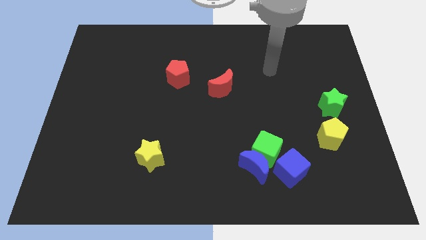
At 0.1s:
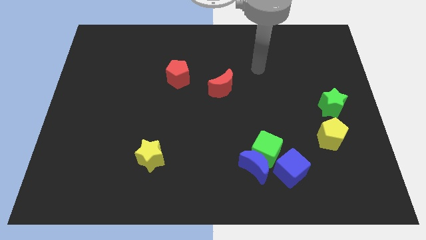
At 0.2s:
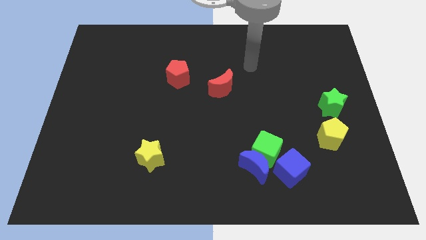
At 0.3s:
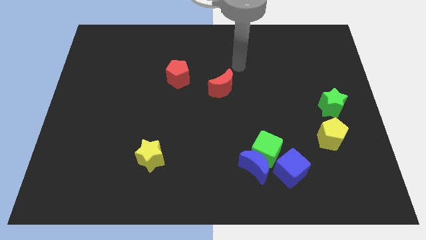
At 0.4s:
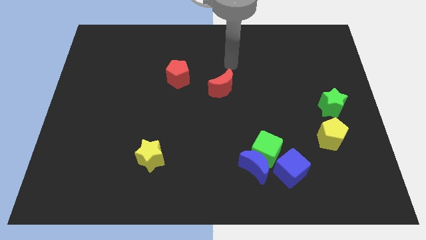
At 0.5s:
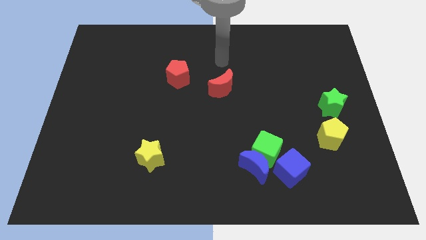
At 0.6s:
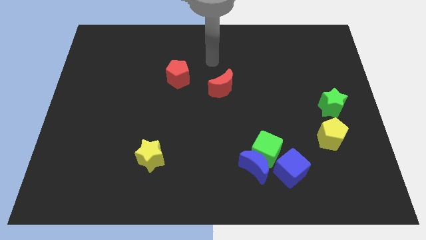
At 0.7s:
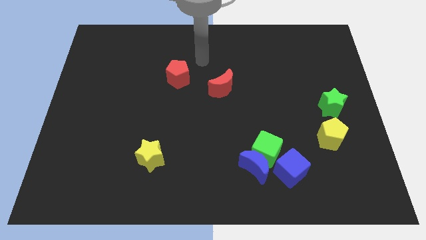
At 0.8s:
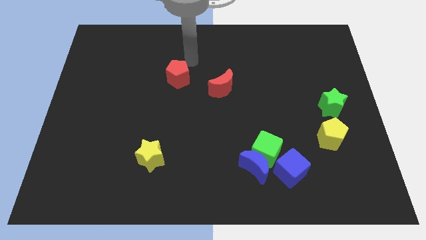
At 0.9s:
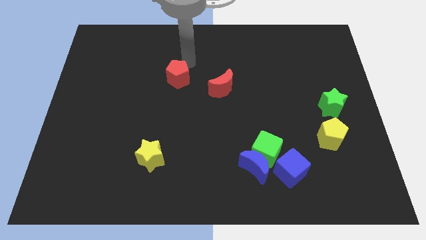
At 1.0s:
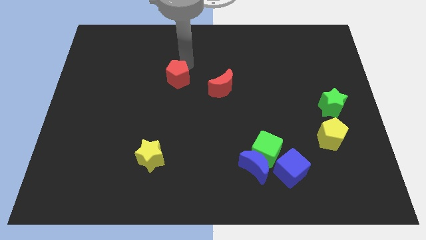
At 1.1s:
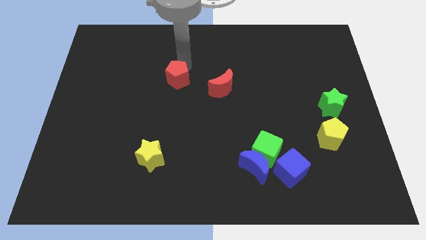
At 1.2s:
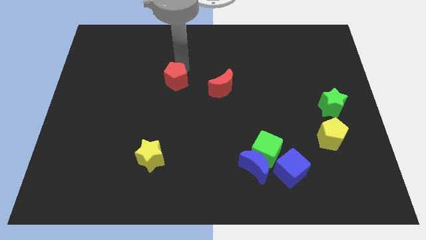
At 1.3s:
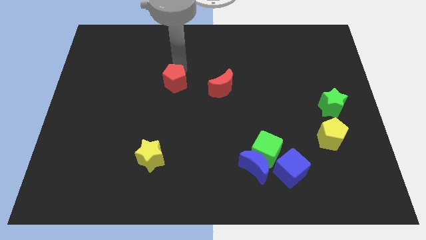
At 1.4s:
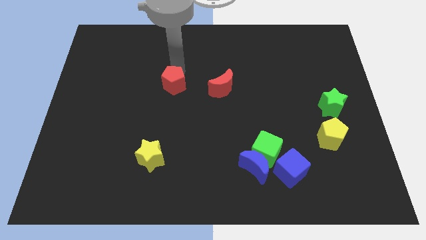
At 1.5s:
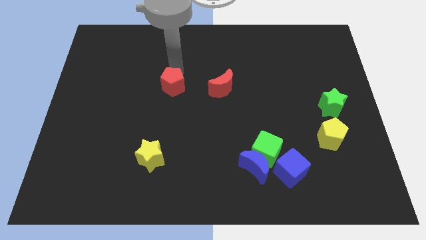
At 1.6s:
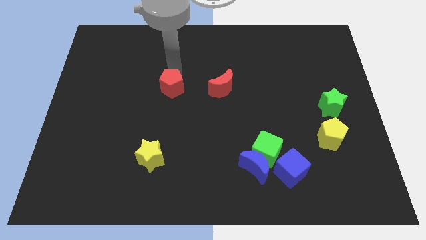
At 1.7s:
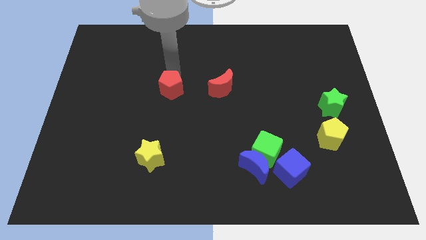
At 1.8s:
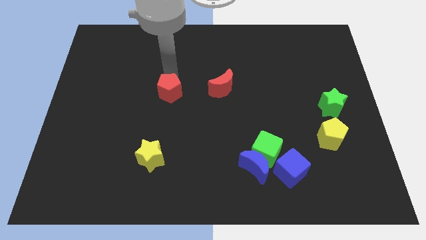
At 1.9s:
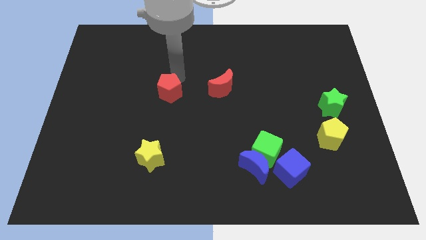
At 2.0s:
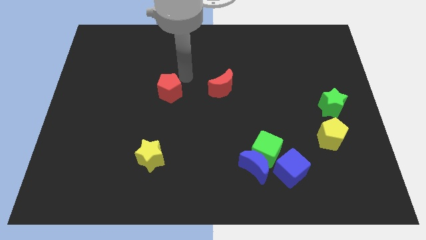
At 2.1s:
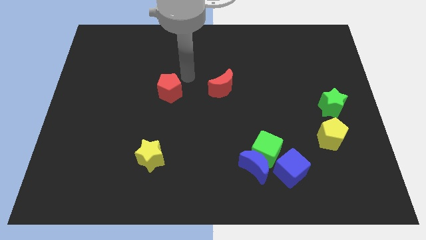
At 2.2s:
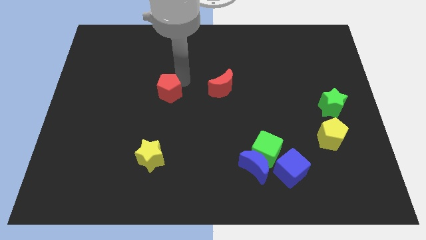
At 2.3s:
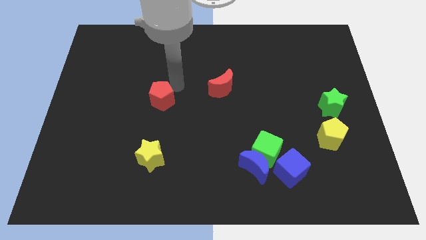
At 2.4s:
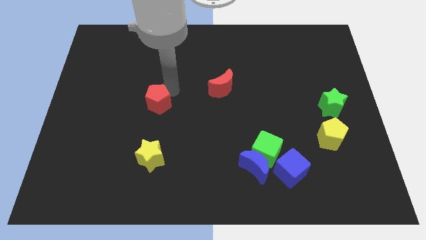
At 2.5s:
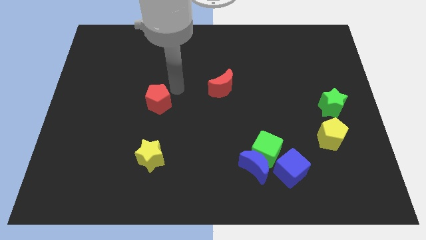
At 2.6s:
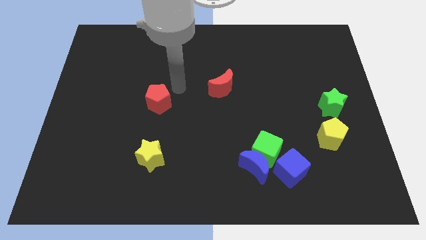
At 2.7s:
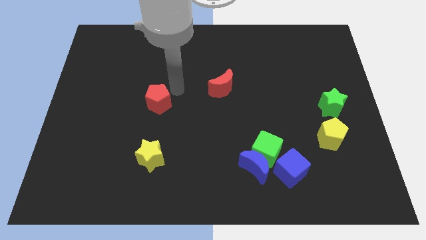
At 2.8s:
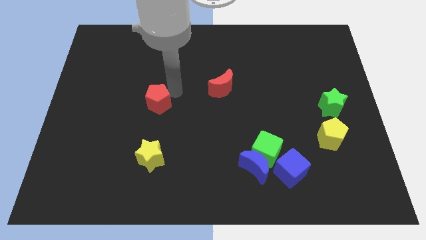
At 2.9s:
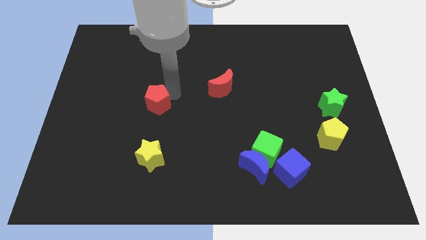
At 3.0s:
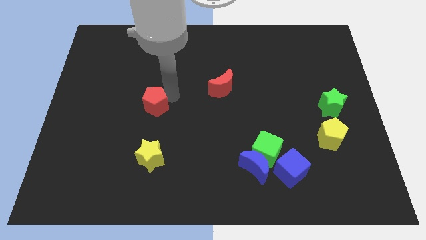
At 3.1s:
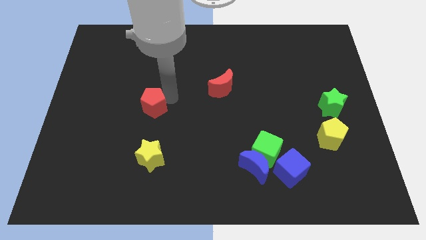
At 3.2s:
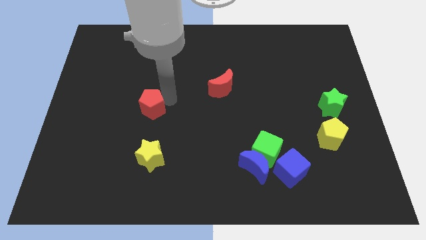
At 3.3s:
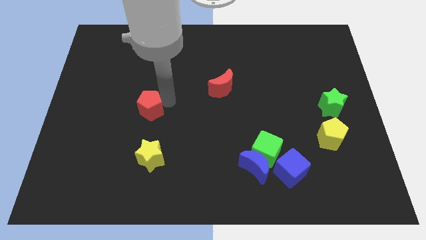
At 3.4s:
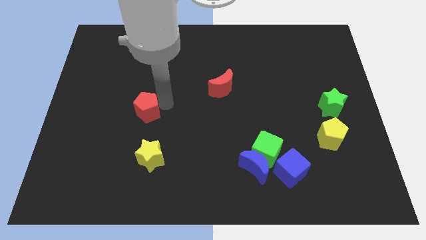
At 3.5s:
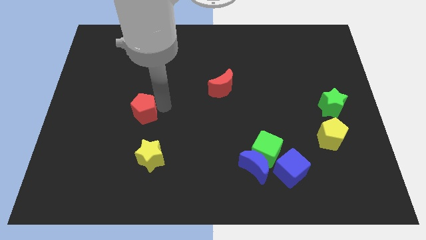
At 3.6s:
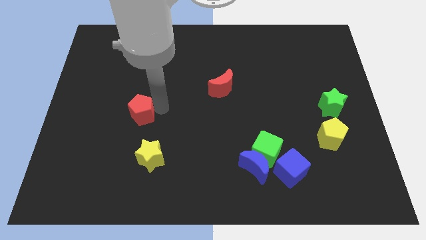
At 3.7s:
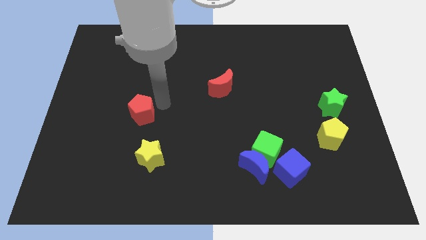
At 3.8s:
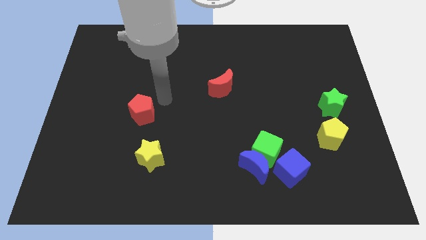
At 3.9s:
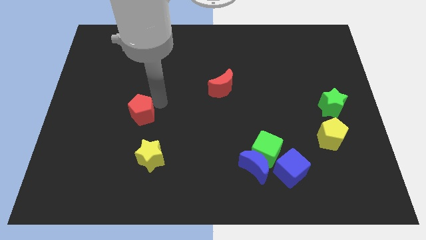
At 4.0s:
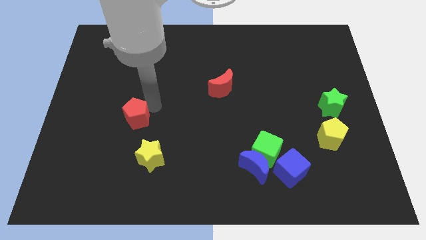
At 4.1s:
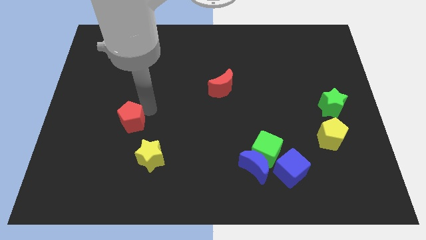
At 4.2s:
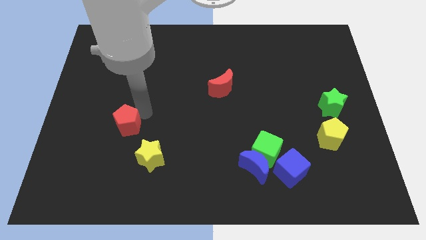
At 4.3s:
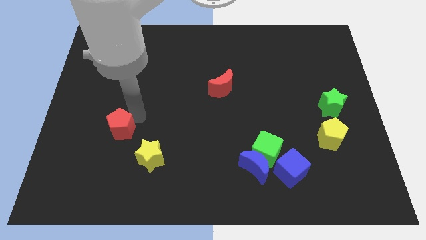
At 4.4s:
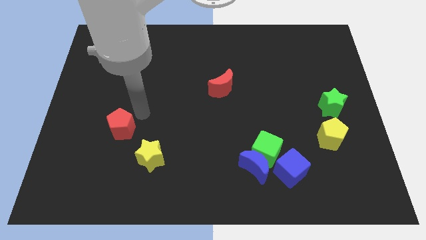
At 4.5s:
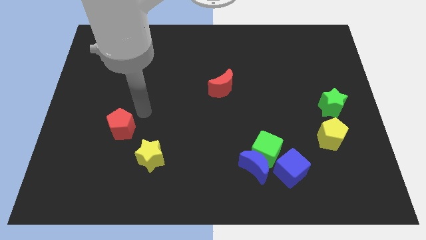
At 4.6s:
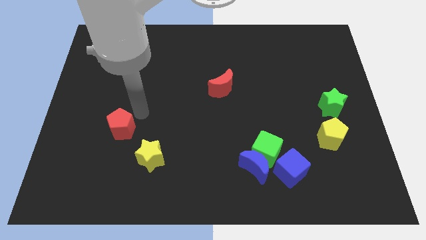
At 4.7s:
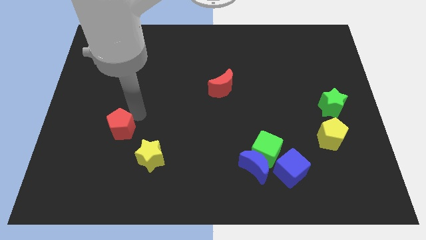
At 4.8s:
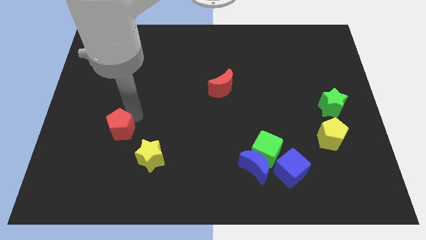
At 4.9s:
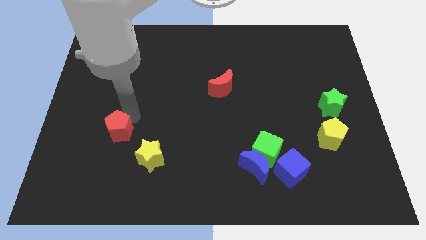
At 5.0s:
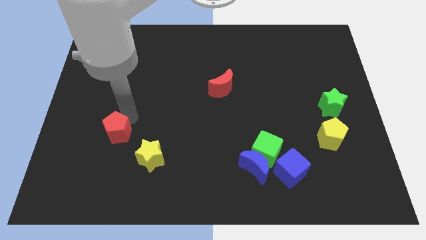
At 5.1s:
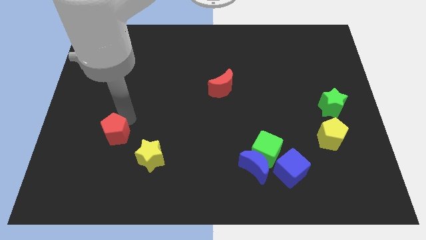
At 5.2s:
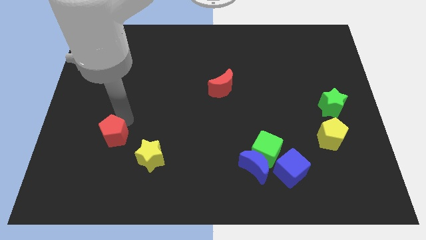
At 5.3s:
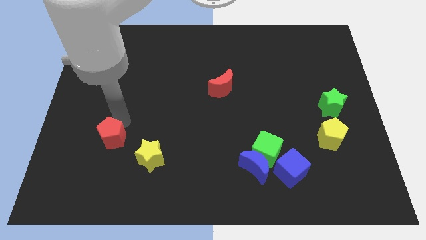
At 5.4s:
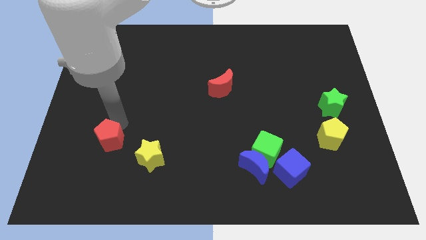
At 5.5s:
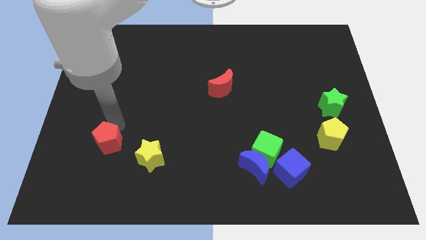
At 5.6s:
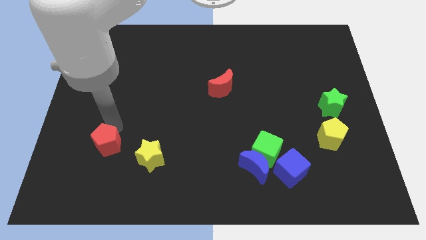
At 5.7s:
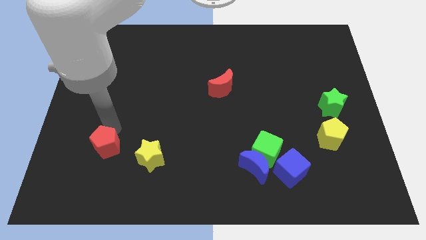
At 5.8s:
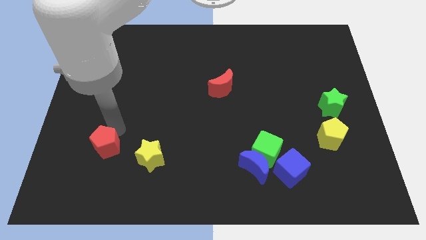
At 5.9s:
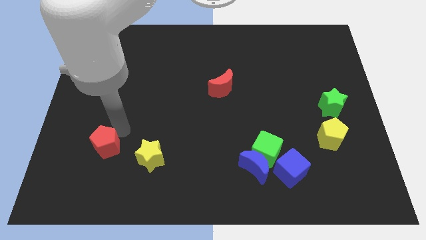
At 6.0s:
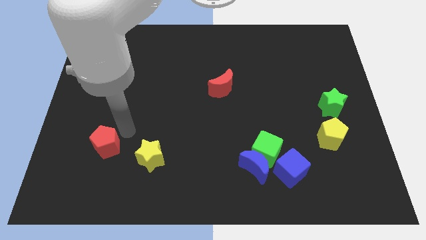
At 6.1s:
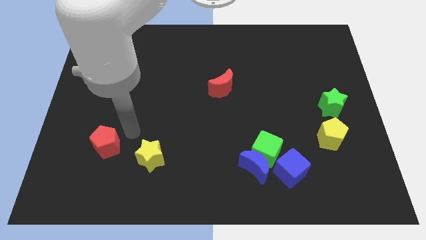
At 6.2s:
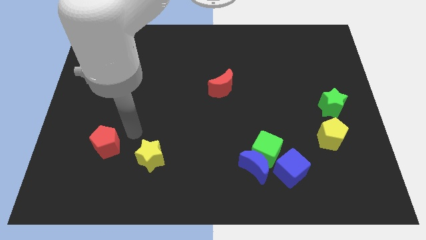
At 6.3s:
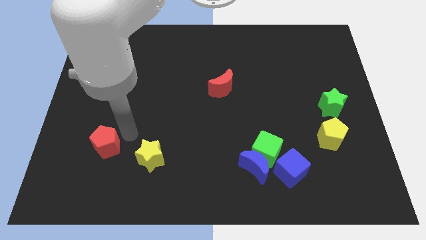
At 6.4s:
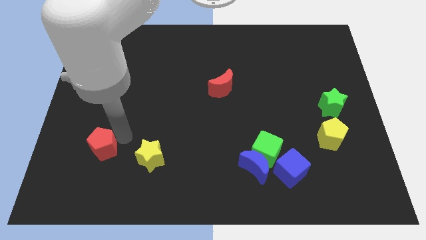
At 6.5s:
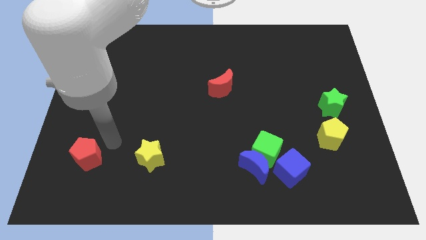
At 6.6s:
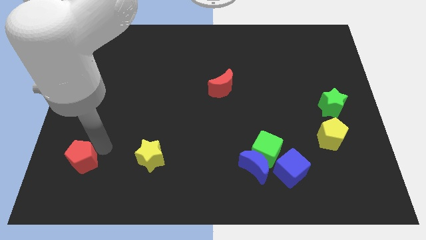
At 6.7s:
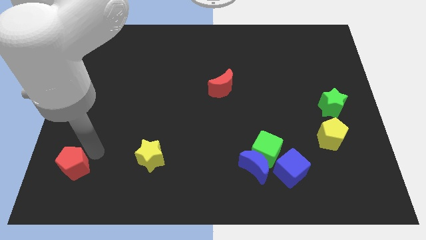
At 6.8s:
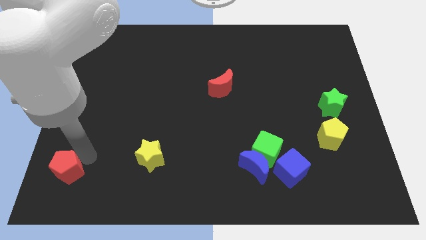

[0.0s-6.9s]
slide the red pentagon to the lower left corner
